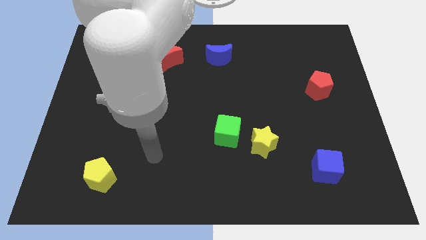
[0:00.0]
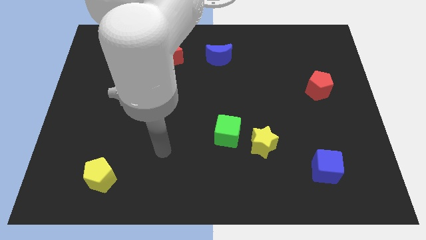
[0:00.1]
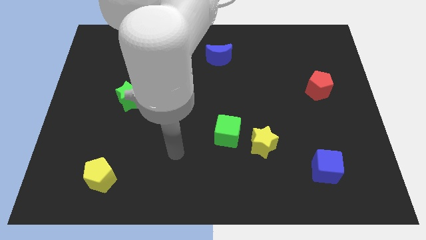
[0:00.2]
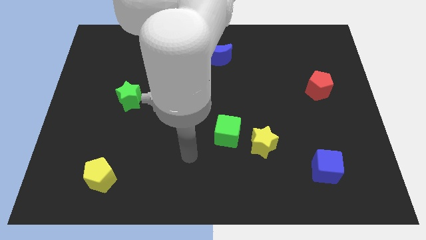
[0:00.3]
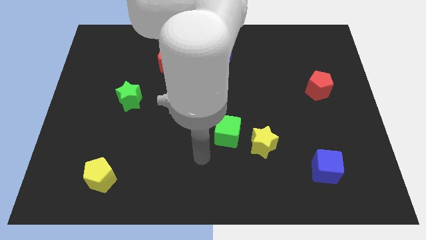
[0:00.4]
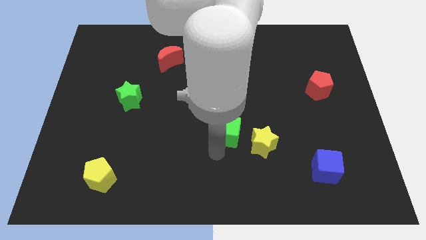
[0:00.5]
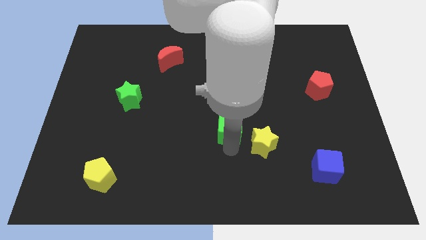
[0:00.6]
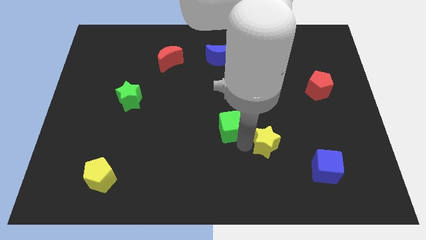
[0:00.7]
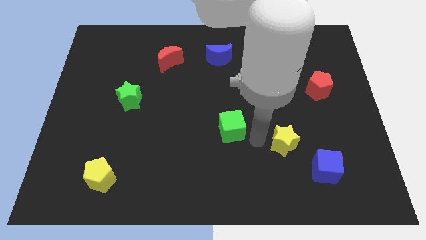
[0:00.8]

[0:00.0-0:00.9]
pull the green cube apart from the yellow star

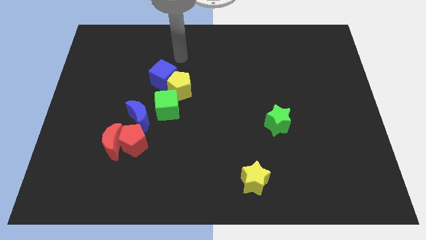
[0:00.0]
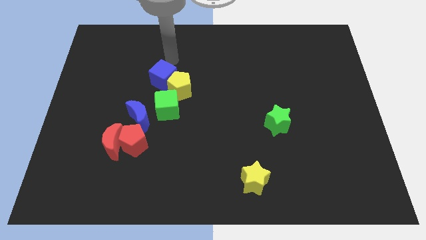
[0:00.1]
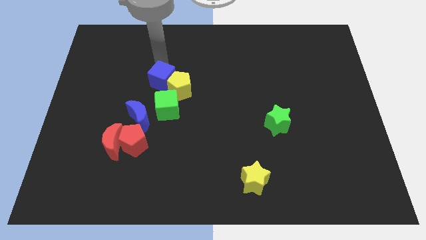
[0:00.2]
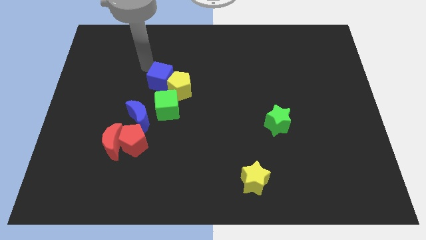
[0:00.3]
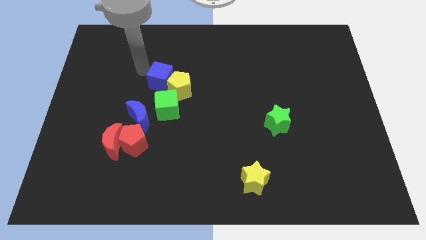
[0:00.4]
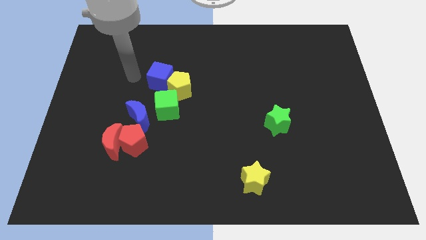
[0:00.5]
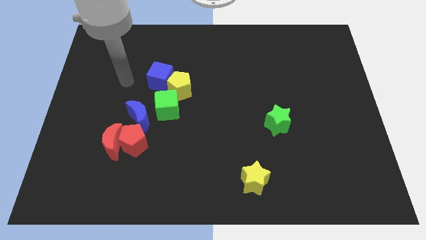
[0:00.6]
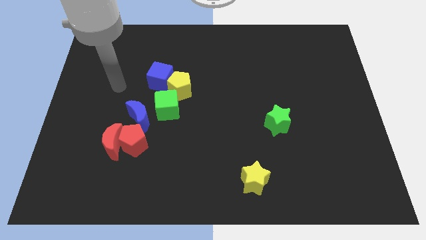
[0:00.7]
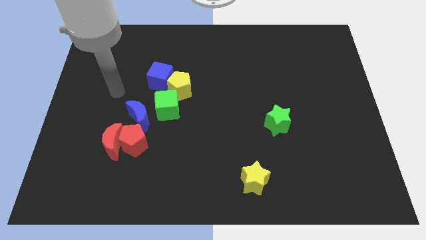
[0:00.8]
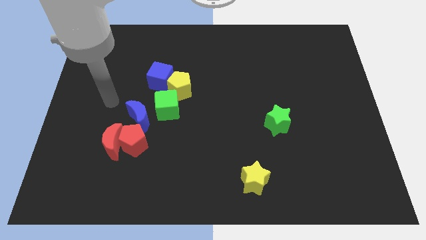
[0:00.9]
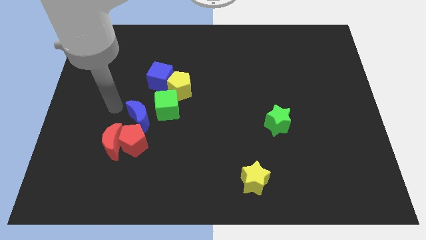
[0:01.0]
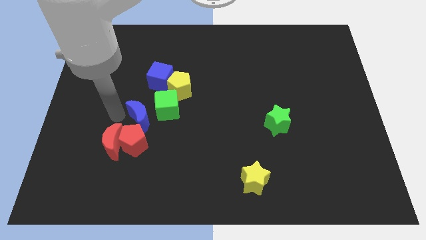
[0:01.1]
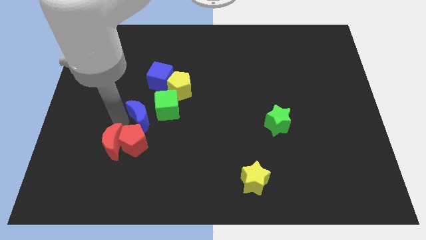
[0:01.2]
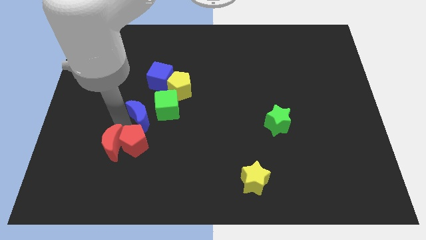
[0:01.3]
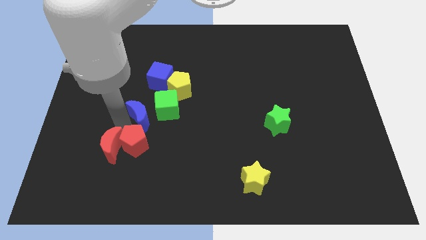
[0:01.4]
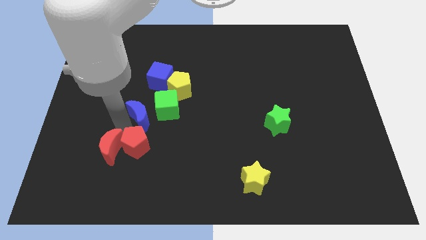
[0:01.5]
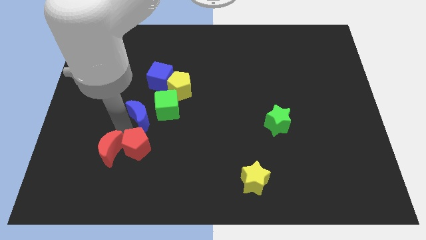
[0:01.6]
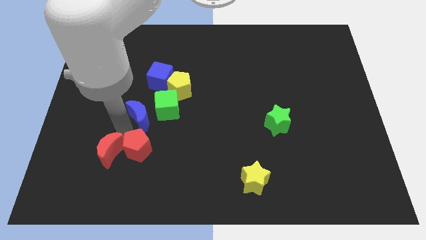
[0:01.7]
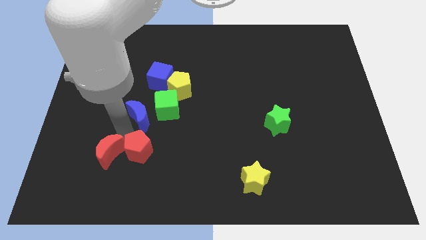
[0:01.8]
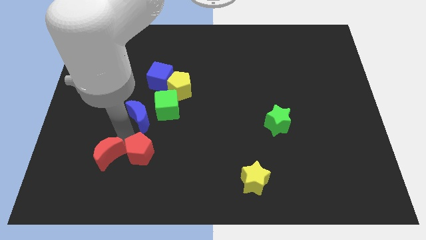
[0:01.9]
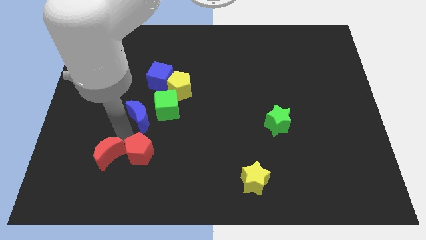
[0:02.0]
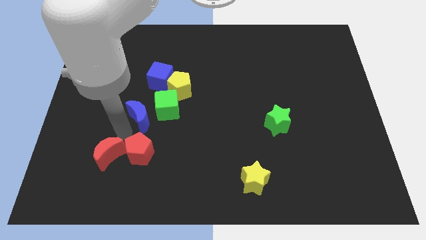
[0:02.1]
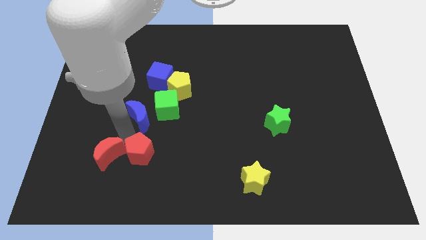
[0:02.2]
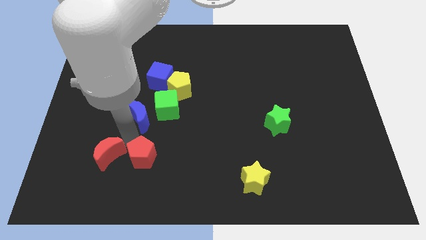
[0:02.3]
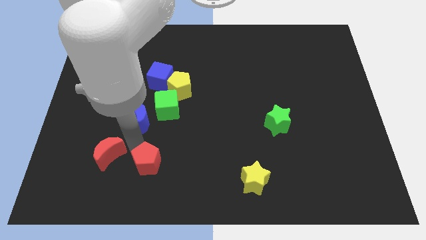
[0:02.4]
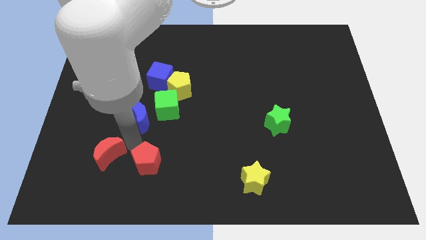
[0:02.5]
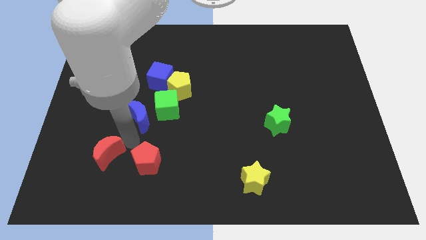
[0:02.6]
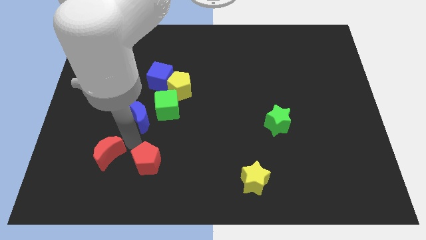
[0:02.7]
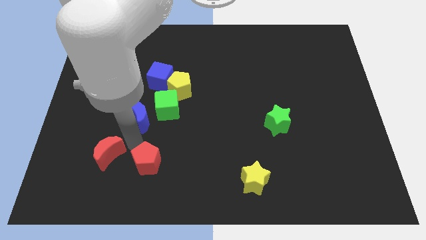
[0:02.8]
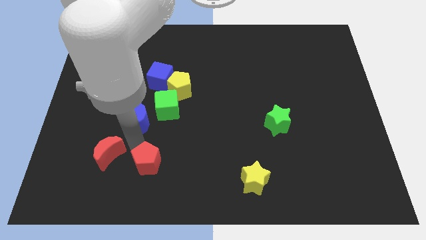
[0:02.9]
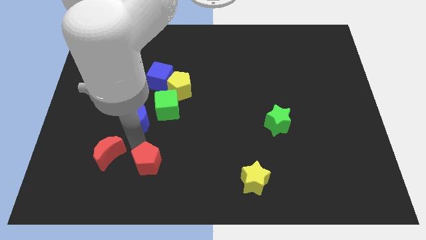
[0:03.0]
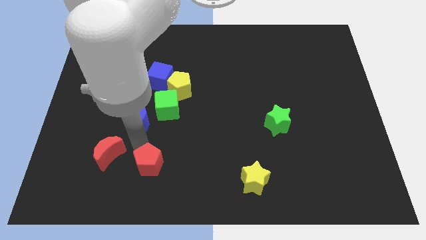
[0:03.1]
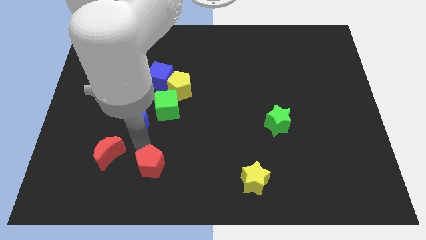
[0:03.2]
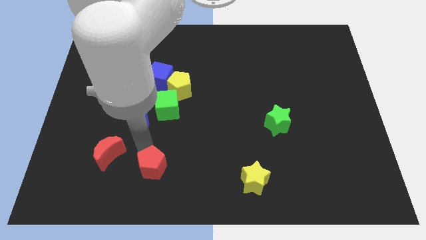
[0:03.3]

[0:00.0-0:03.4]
move the red pentagon away from the red moon and blue moon

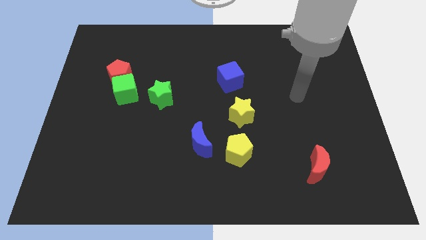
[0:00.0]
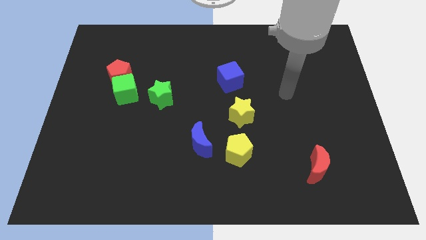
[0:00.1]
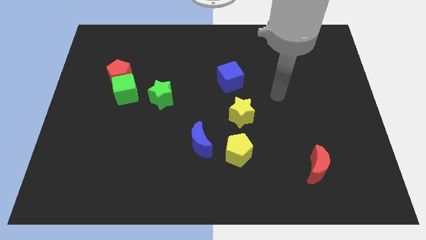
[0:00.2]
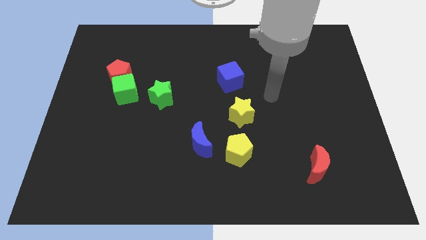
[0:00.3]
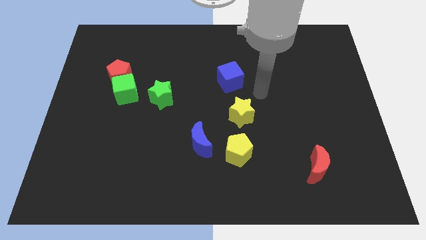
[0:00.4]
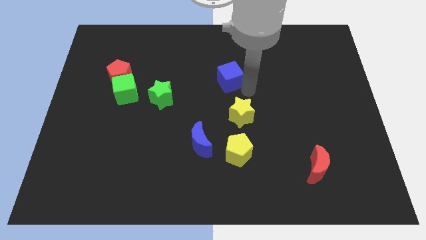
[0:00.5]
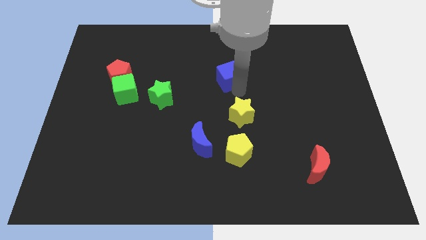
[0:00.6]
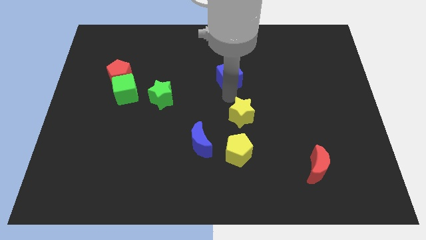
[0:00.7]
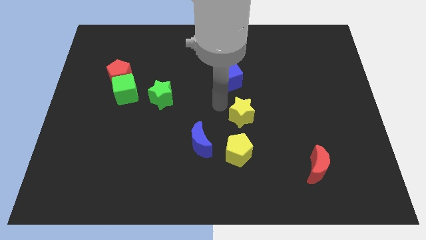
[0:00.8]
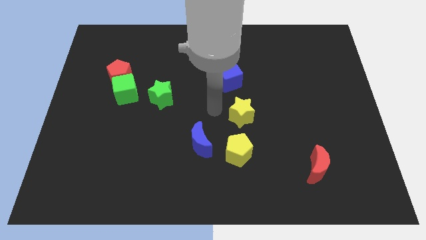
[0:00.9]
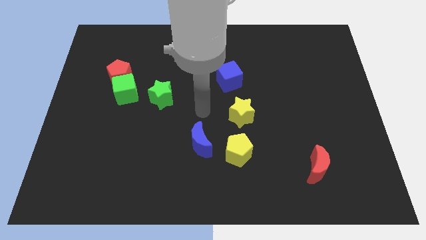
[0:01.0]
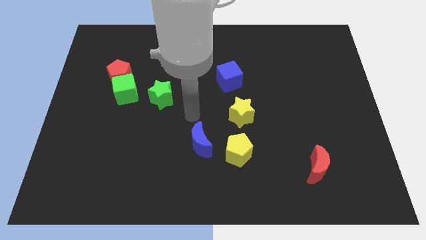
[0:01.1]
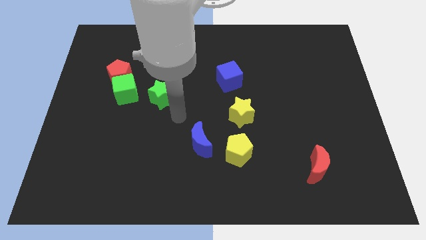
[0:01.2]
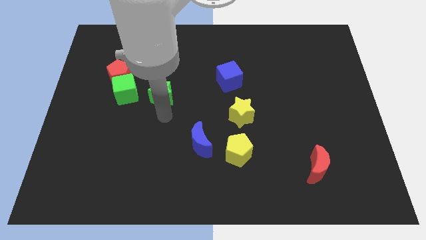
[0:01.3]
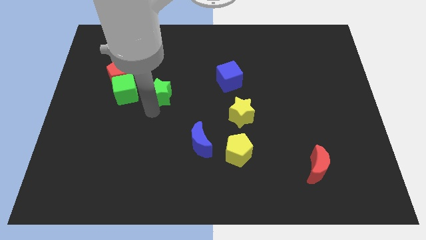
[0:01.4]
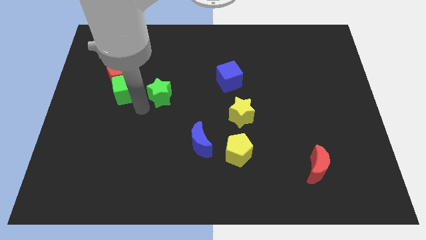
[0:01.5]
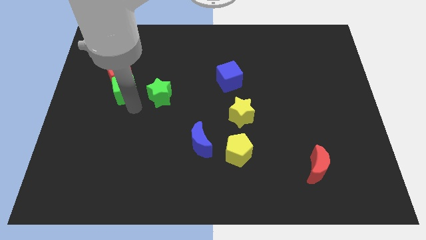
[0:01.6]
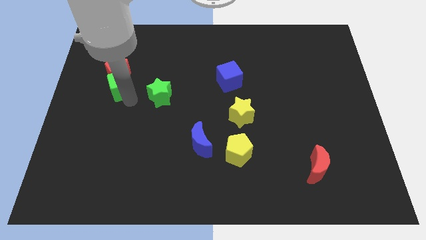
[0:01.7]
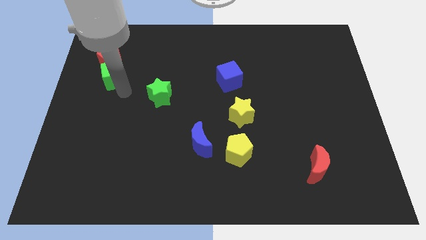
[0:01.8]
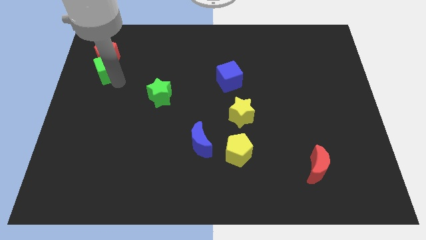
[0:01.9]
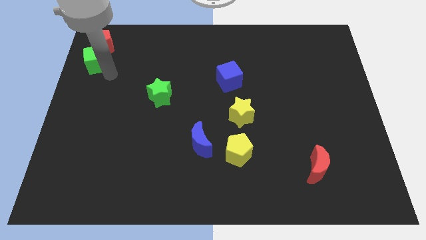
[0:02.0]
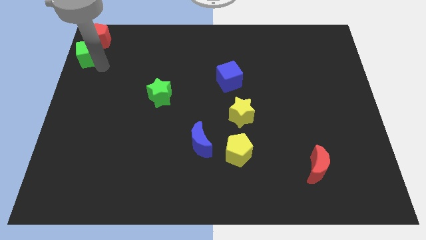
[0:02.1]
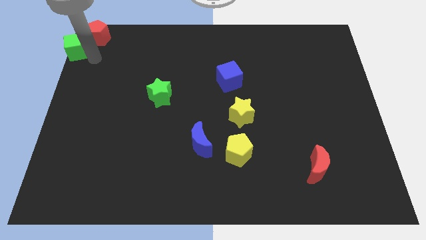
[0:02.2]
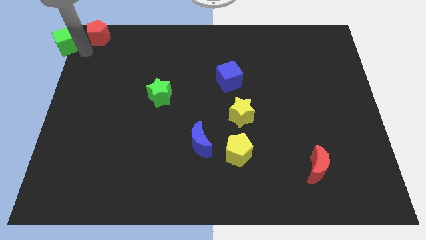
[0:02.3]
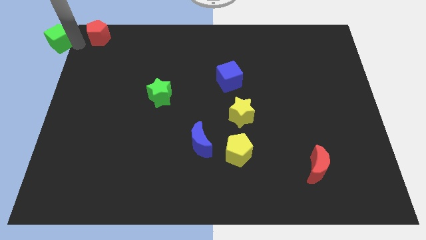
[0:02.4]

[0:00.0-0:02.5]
separate the red pentagon from the green cube

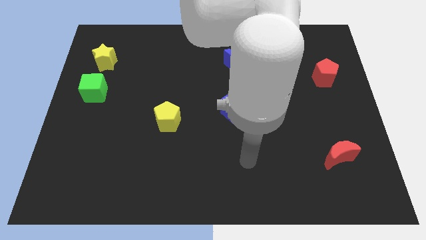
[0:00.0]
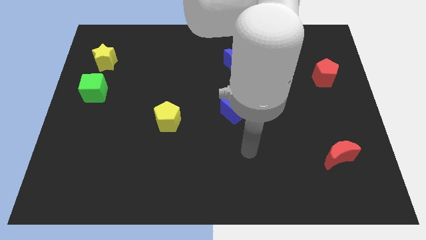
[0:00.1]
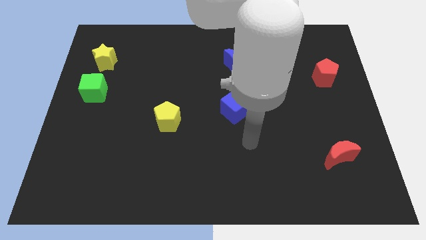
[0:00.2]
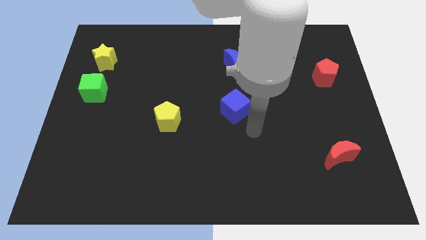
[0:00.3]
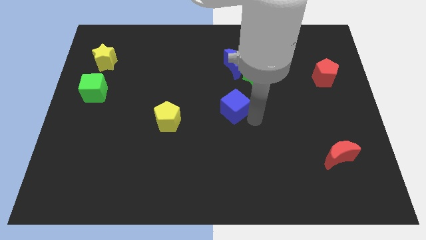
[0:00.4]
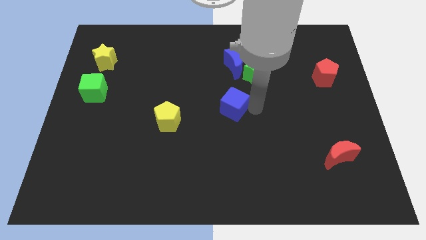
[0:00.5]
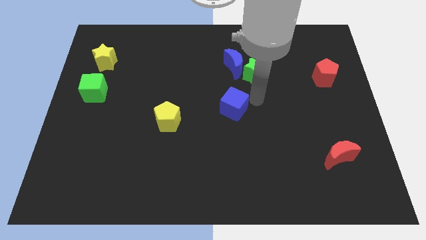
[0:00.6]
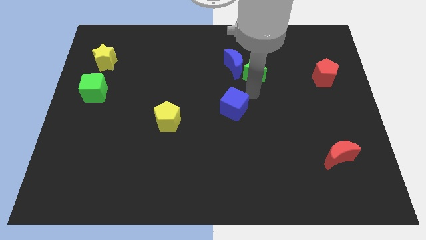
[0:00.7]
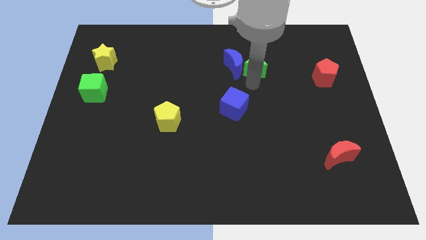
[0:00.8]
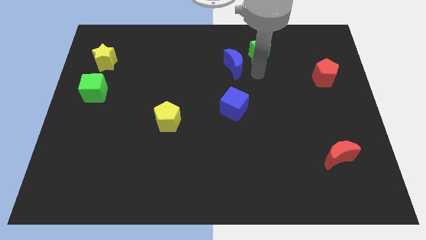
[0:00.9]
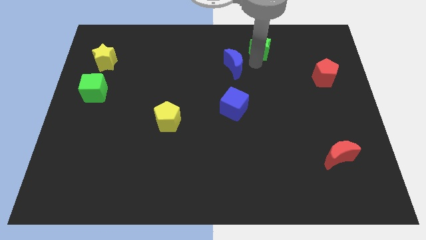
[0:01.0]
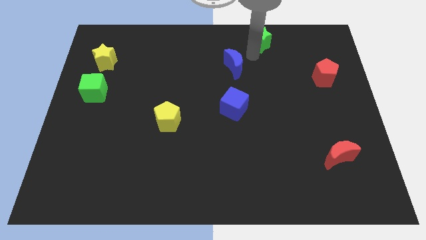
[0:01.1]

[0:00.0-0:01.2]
move the blue moon away from the green star

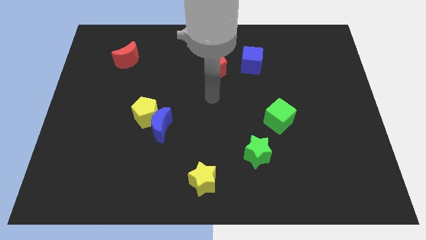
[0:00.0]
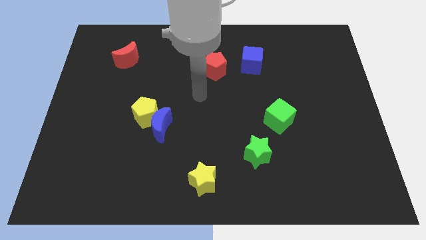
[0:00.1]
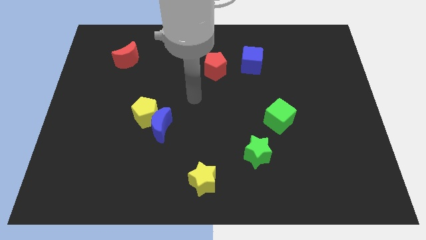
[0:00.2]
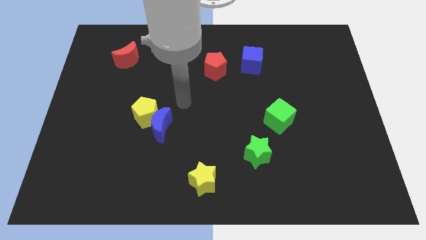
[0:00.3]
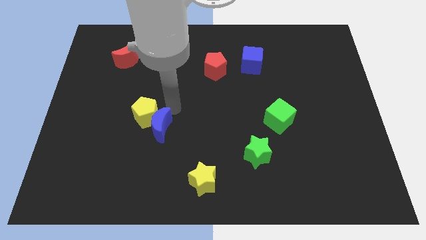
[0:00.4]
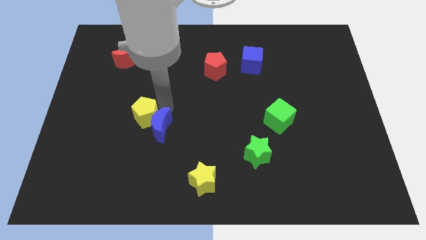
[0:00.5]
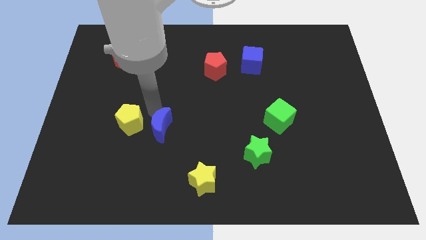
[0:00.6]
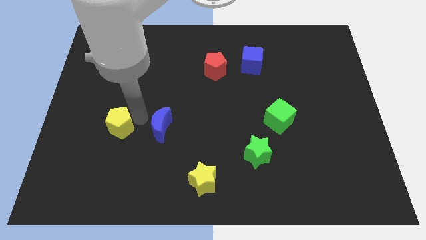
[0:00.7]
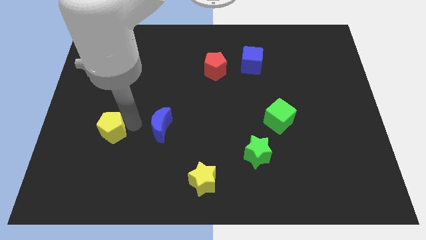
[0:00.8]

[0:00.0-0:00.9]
move the blue moon away from the yellow pentagon

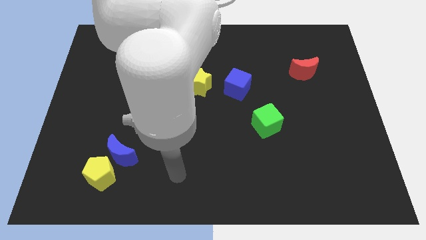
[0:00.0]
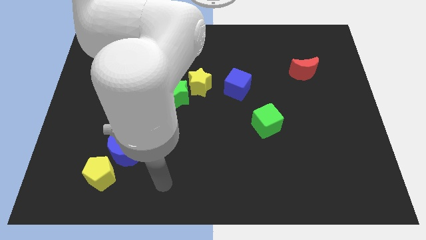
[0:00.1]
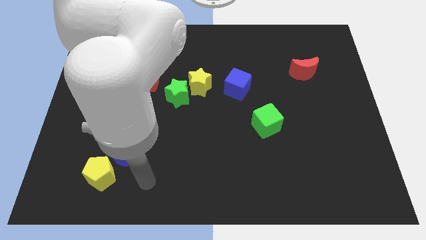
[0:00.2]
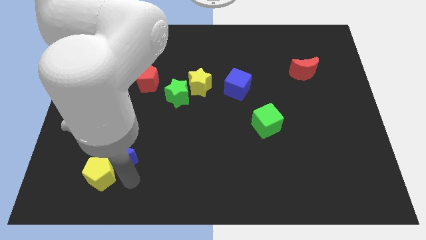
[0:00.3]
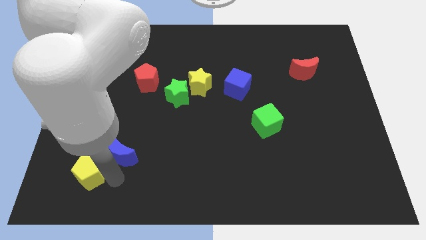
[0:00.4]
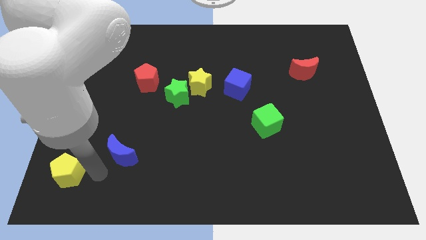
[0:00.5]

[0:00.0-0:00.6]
separate the blue moon from the yellow pentagon
